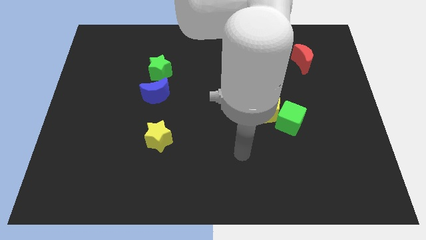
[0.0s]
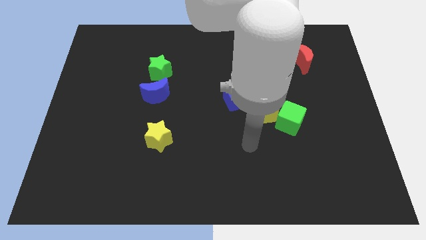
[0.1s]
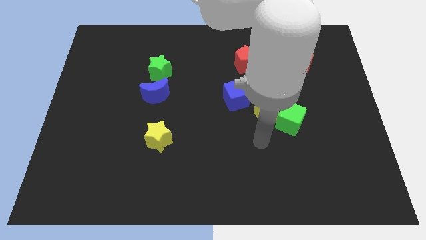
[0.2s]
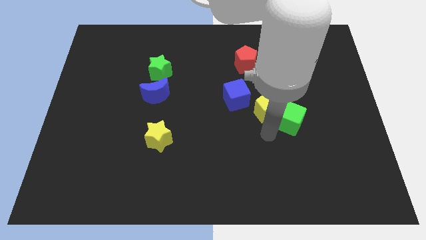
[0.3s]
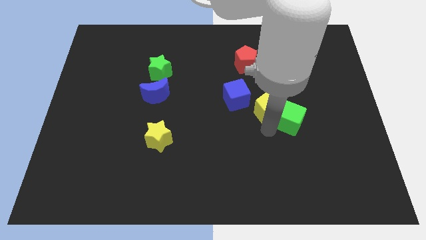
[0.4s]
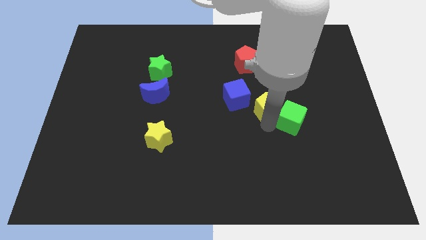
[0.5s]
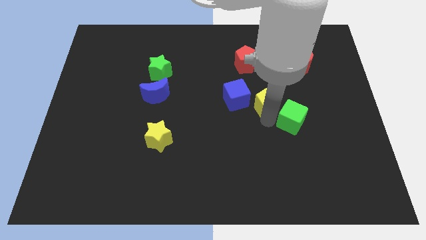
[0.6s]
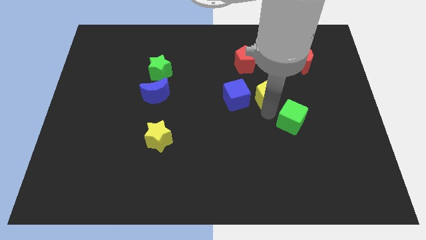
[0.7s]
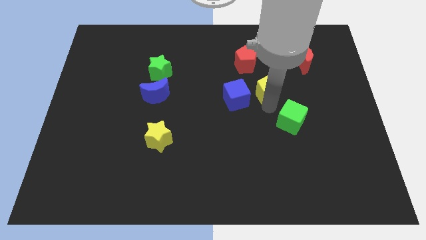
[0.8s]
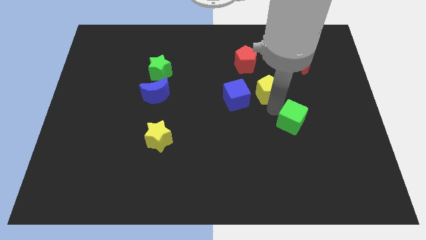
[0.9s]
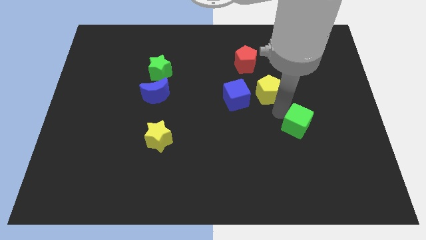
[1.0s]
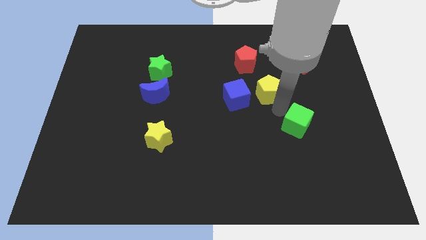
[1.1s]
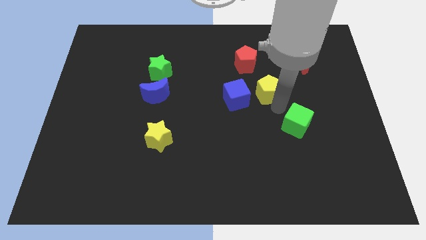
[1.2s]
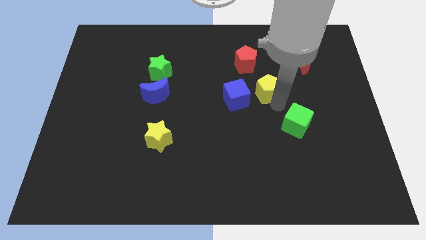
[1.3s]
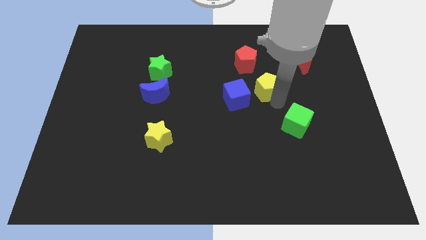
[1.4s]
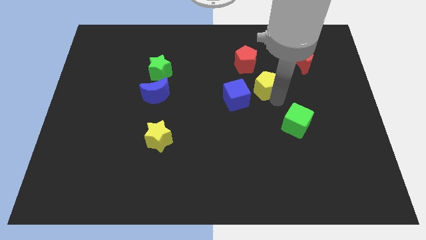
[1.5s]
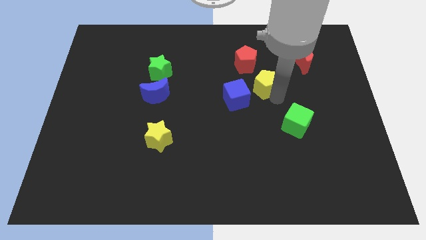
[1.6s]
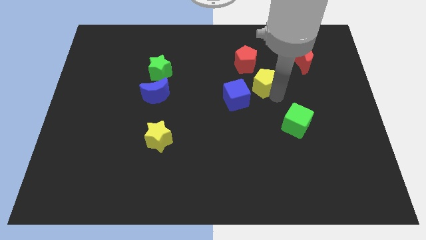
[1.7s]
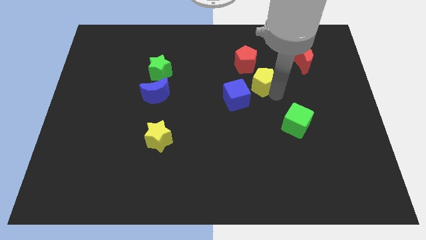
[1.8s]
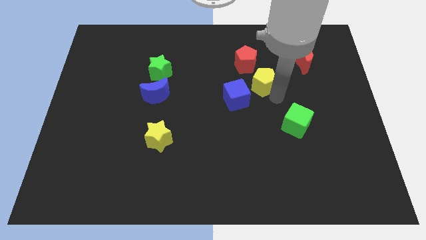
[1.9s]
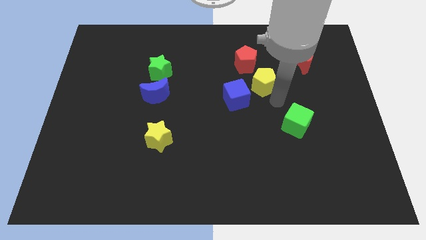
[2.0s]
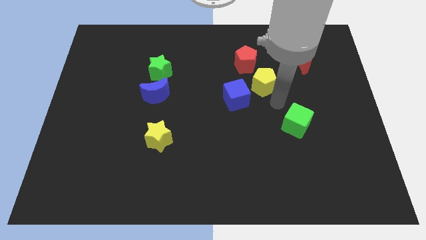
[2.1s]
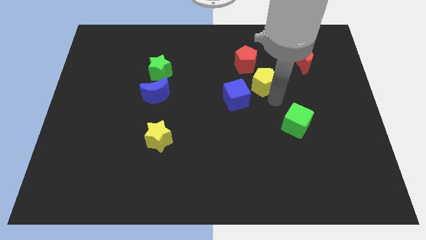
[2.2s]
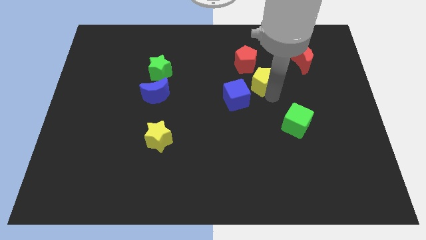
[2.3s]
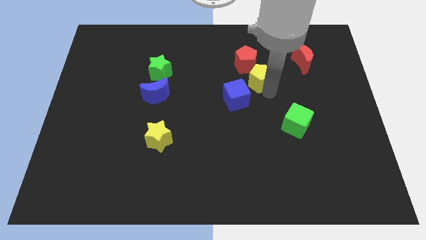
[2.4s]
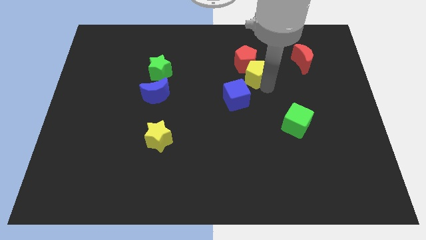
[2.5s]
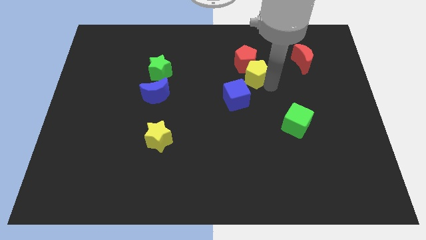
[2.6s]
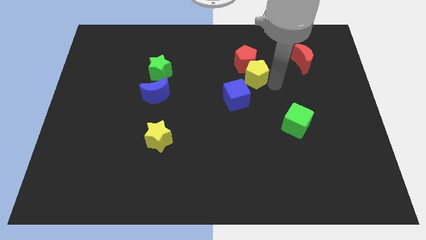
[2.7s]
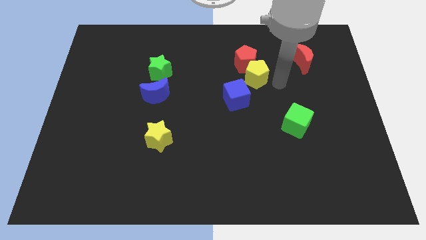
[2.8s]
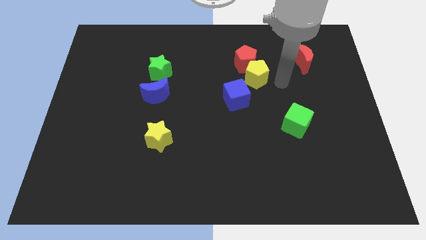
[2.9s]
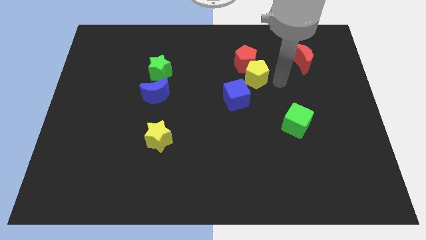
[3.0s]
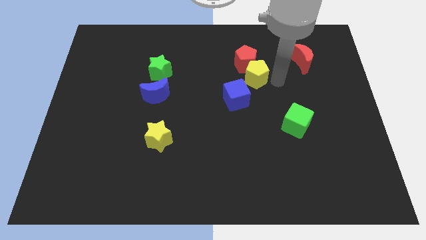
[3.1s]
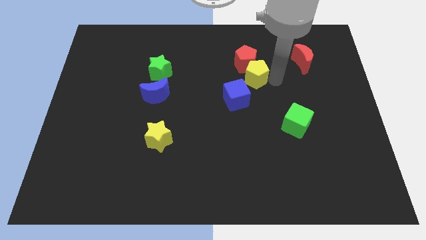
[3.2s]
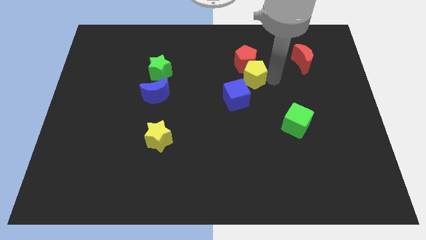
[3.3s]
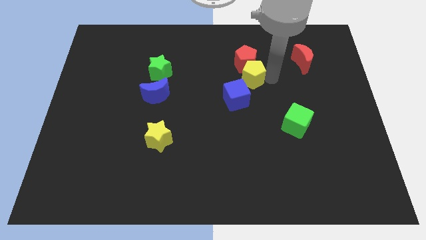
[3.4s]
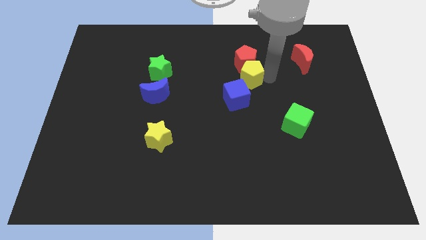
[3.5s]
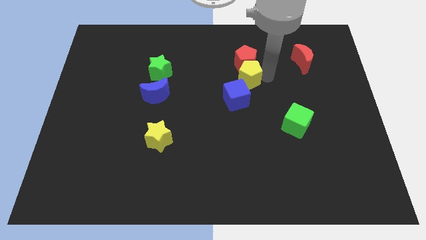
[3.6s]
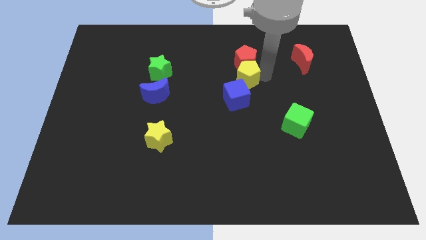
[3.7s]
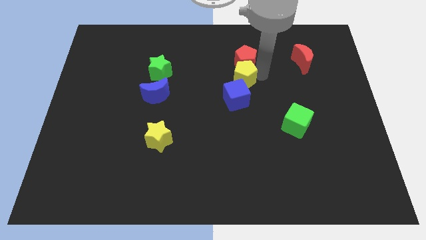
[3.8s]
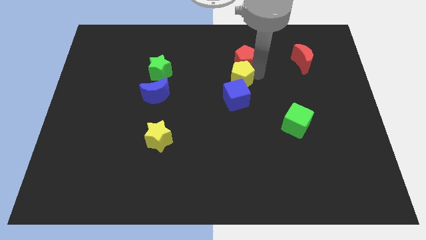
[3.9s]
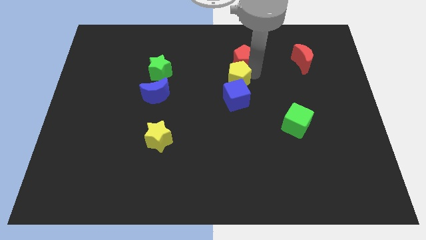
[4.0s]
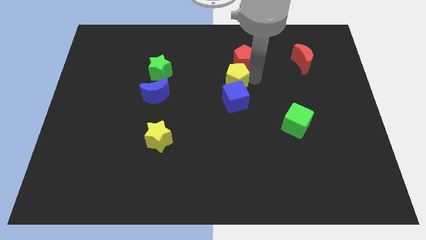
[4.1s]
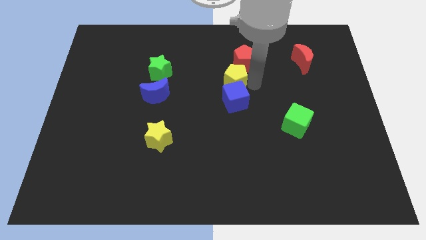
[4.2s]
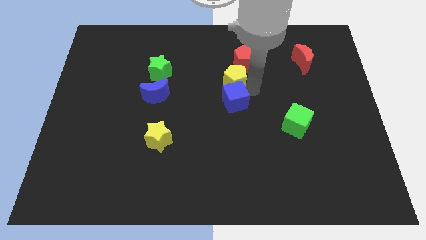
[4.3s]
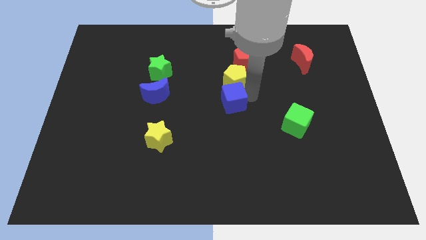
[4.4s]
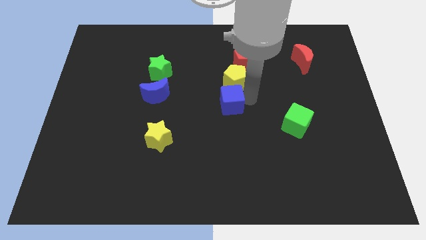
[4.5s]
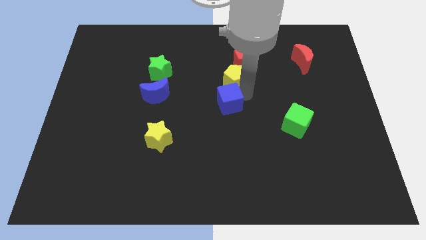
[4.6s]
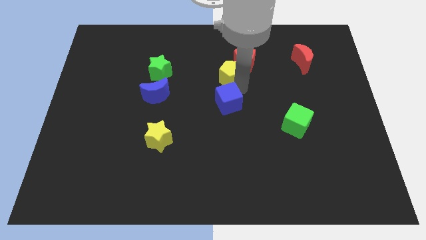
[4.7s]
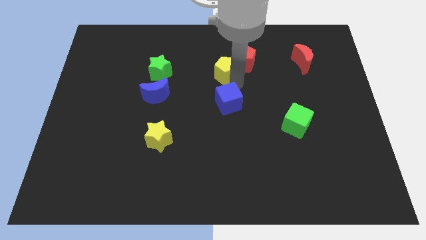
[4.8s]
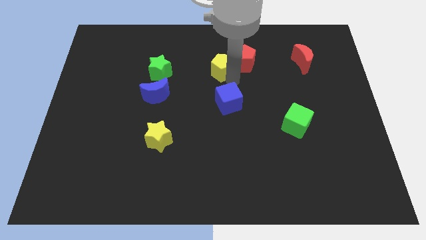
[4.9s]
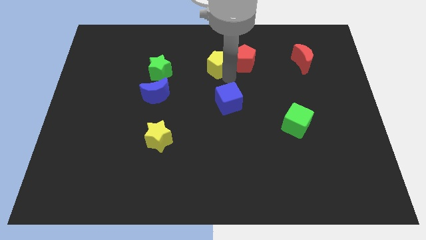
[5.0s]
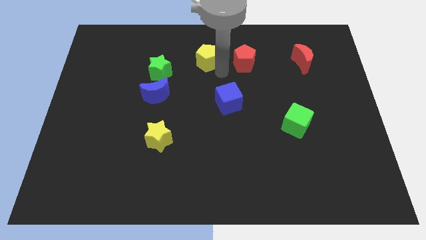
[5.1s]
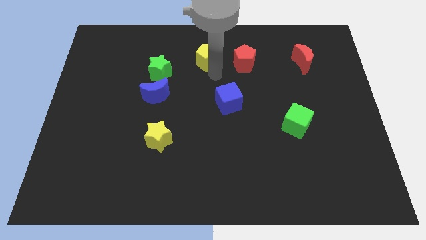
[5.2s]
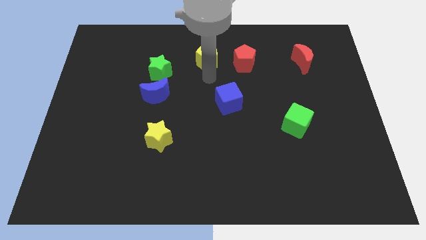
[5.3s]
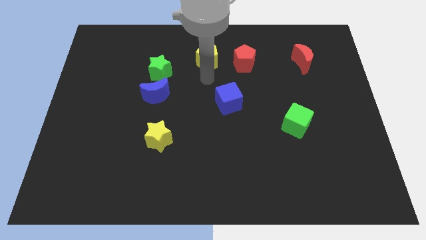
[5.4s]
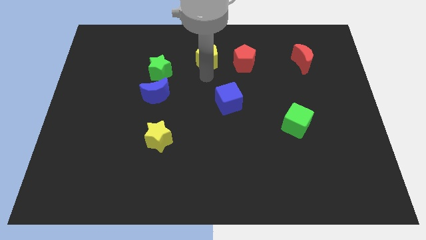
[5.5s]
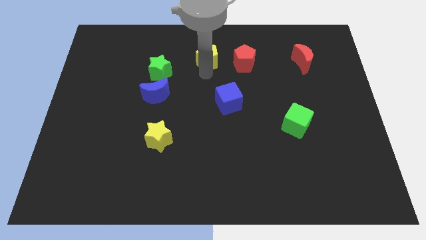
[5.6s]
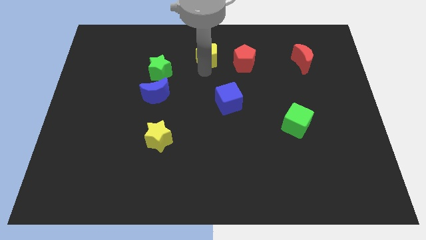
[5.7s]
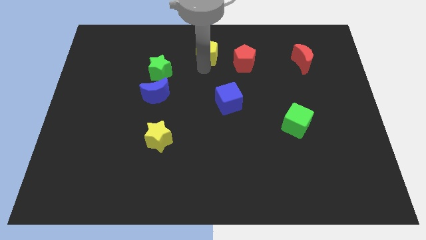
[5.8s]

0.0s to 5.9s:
move the yellow pentagon to the towards your base

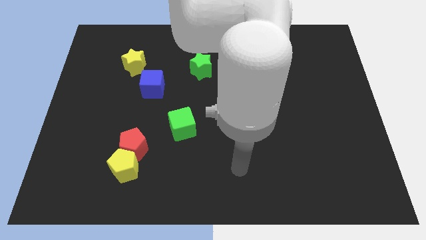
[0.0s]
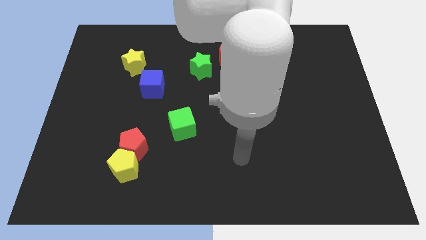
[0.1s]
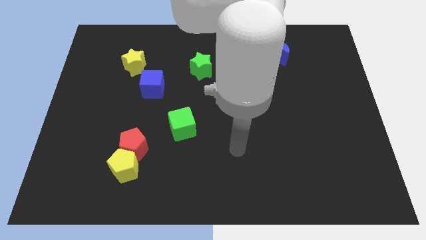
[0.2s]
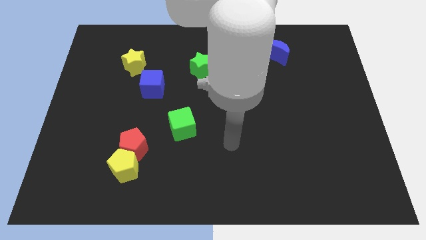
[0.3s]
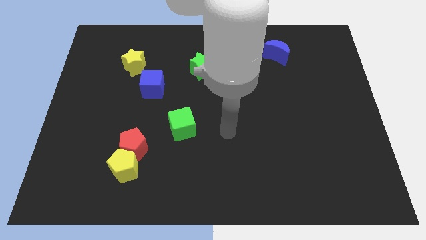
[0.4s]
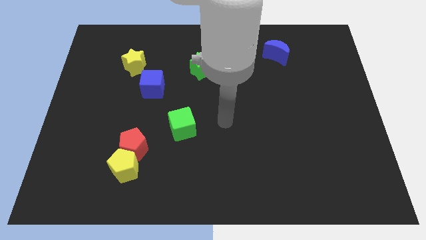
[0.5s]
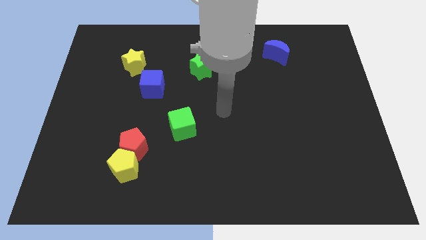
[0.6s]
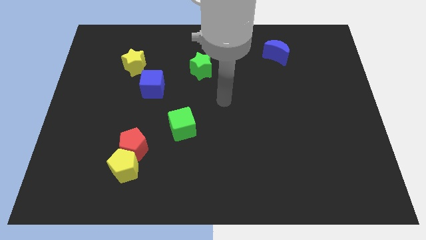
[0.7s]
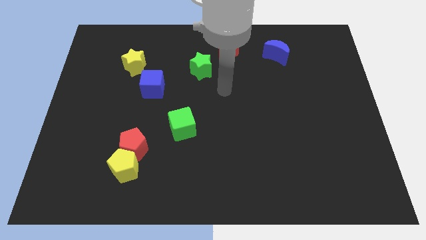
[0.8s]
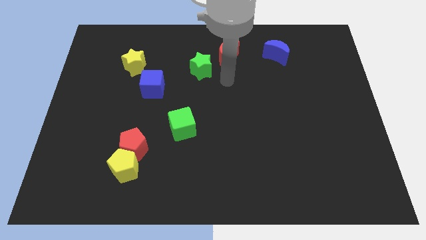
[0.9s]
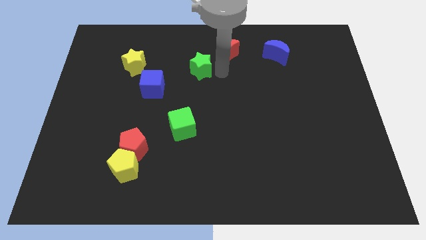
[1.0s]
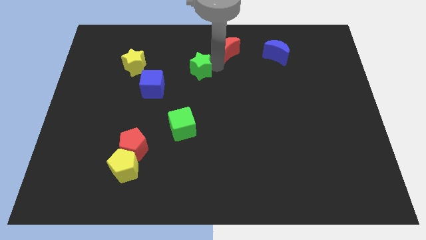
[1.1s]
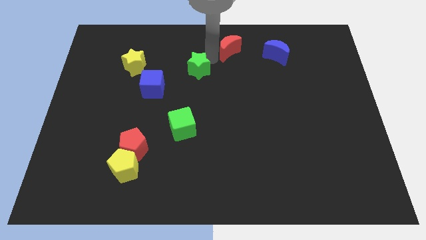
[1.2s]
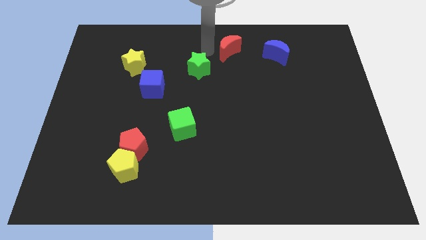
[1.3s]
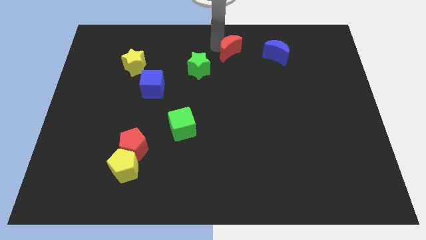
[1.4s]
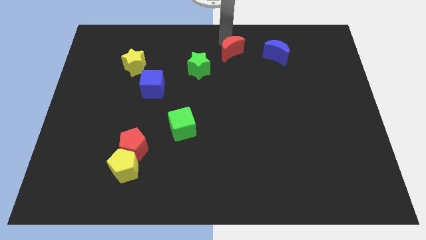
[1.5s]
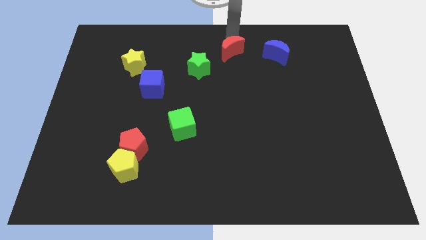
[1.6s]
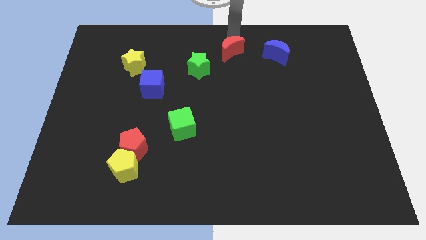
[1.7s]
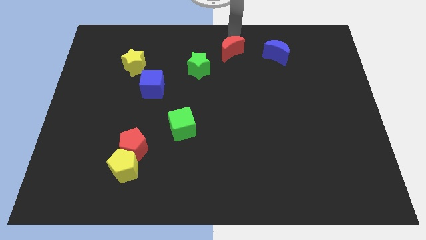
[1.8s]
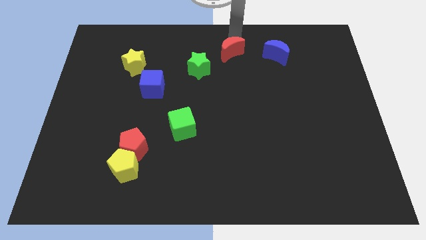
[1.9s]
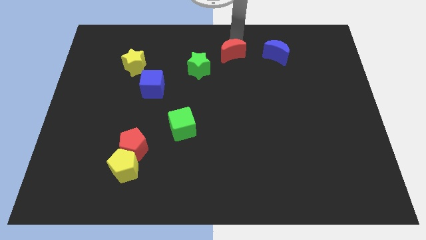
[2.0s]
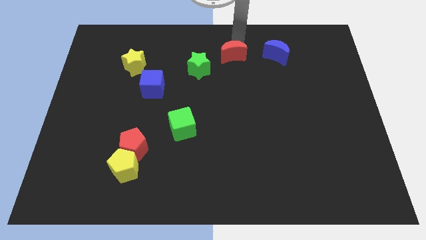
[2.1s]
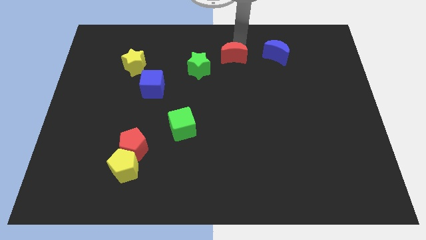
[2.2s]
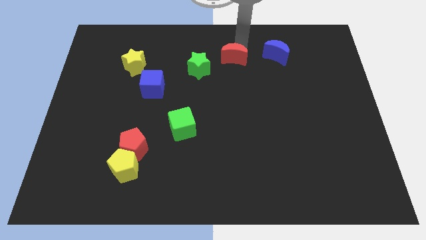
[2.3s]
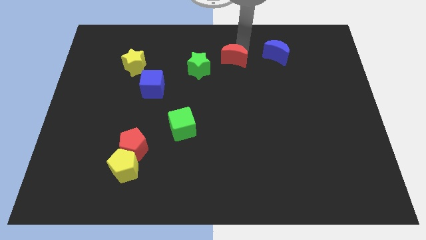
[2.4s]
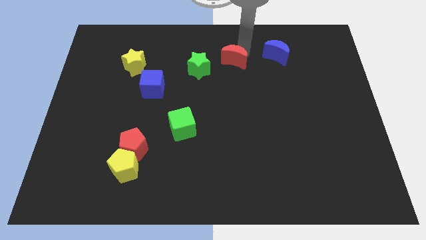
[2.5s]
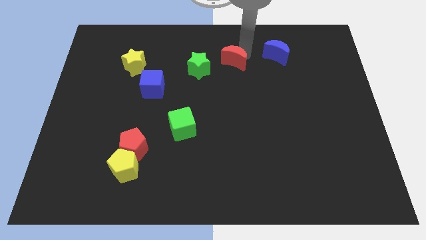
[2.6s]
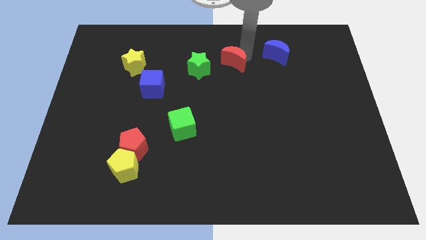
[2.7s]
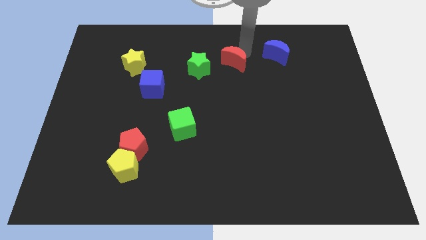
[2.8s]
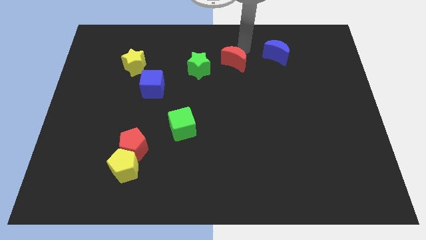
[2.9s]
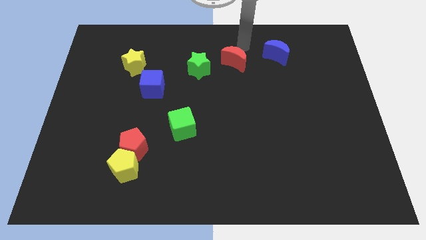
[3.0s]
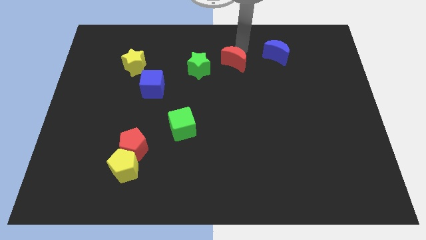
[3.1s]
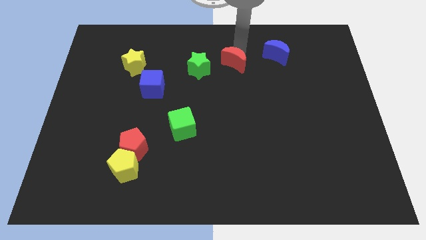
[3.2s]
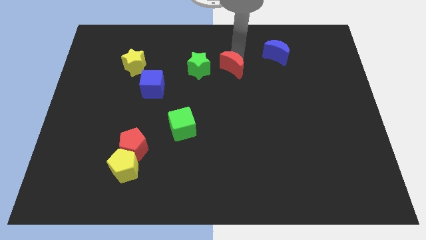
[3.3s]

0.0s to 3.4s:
put the red moon to the center of the board
